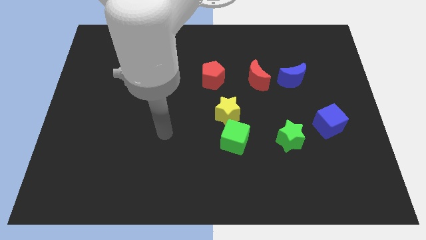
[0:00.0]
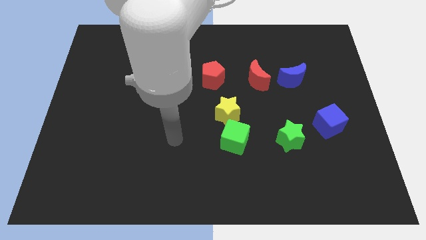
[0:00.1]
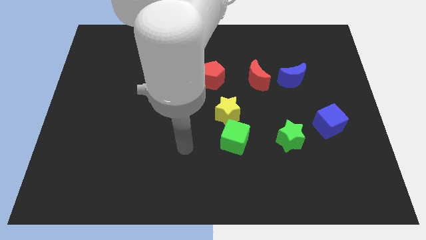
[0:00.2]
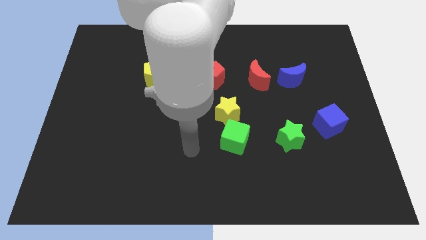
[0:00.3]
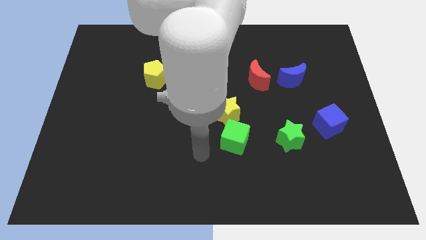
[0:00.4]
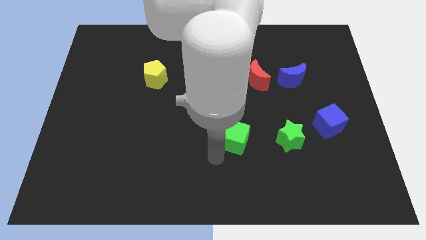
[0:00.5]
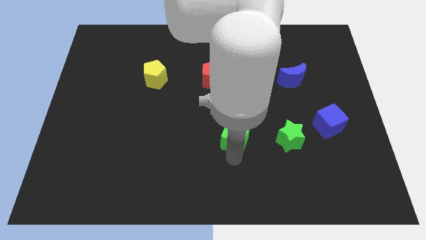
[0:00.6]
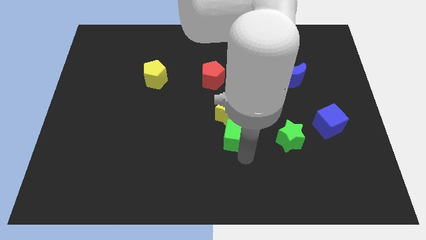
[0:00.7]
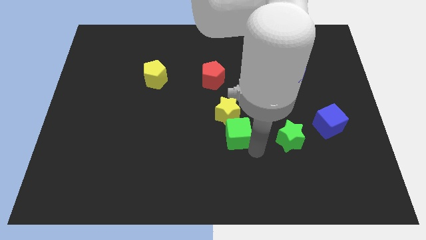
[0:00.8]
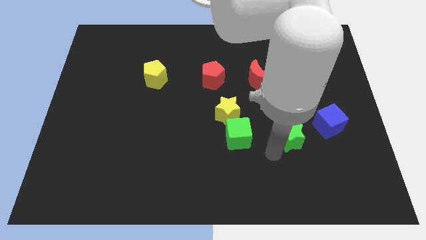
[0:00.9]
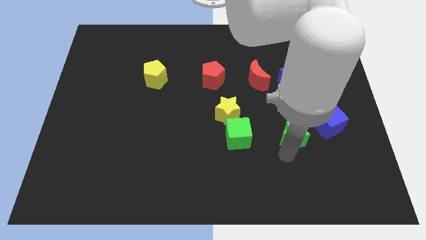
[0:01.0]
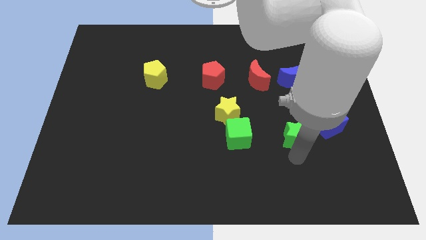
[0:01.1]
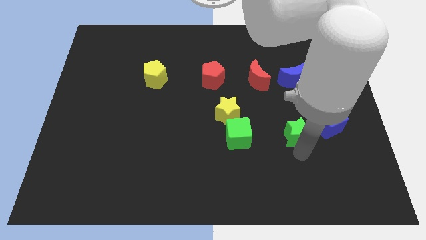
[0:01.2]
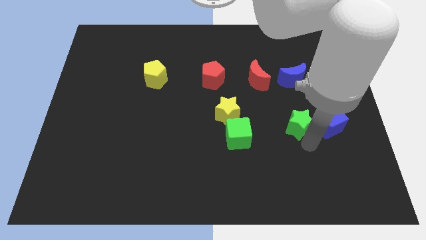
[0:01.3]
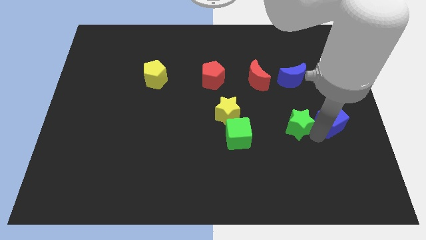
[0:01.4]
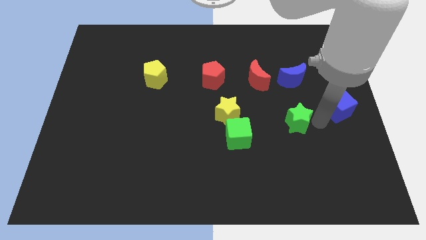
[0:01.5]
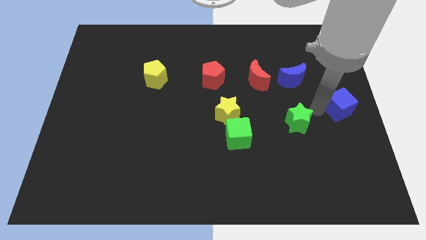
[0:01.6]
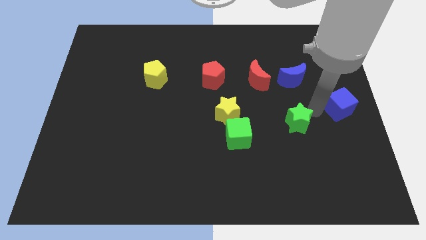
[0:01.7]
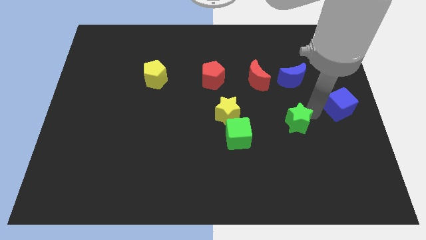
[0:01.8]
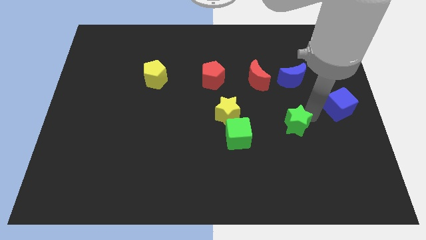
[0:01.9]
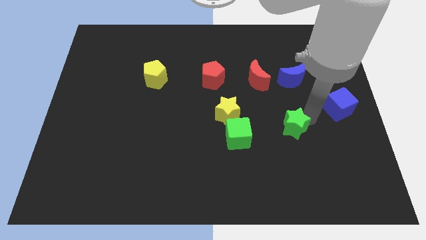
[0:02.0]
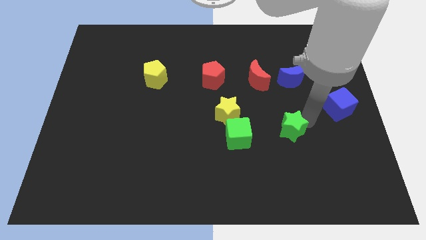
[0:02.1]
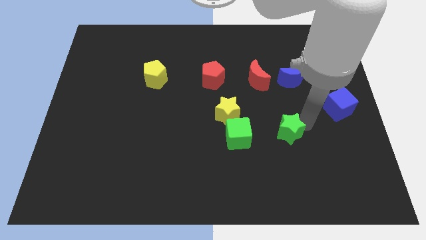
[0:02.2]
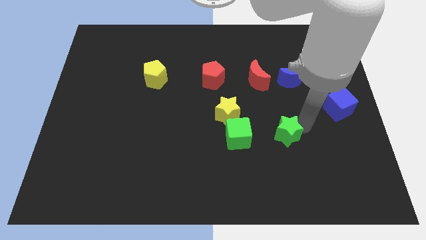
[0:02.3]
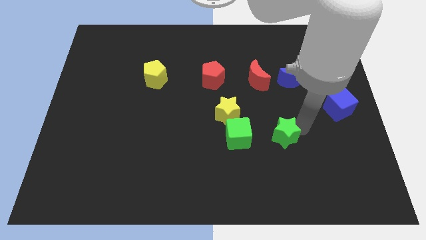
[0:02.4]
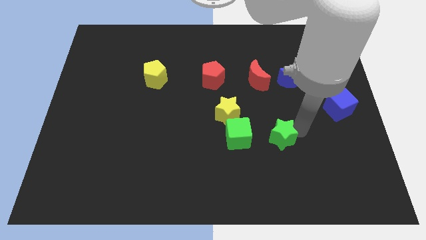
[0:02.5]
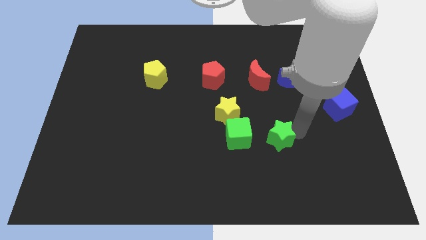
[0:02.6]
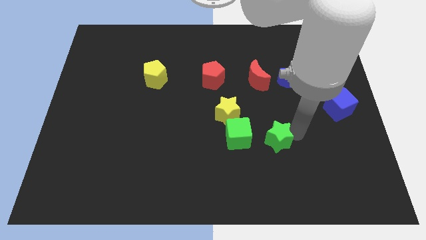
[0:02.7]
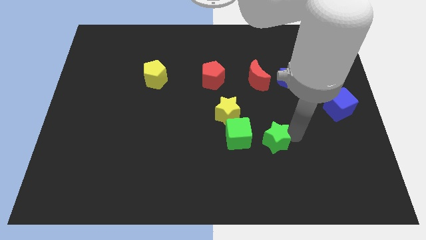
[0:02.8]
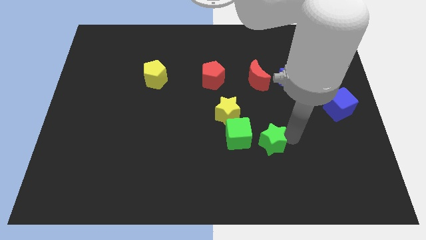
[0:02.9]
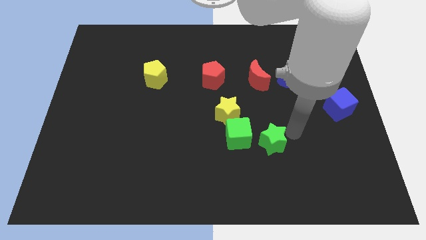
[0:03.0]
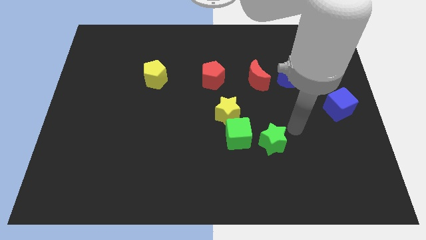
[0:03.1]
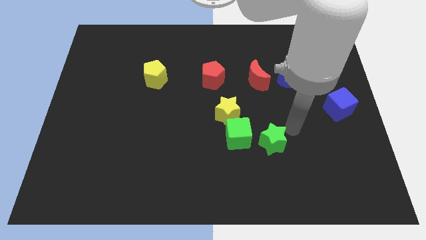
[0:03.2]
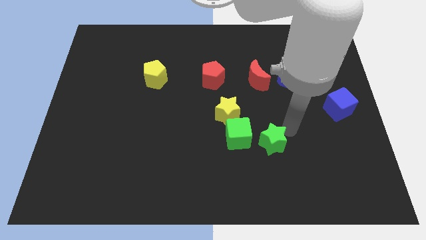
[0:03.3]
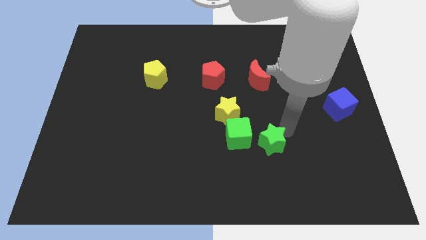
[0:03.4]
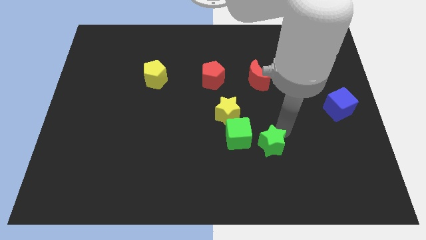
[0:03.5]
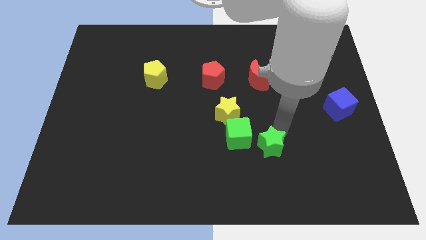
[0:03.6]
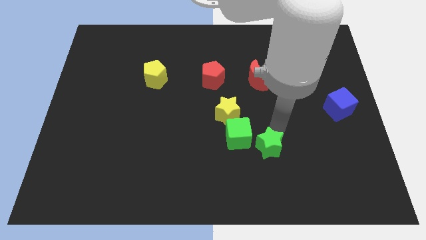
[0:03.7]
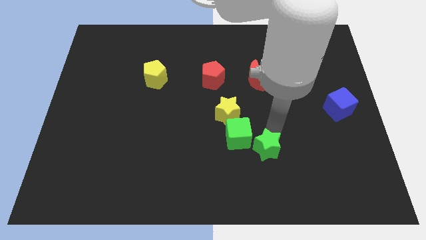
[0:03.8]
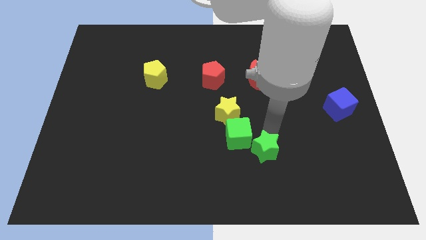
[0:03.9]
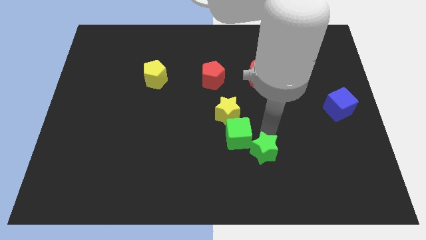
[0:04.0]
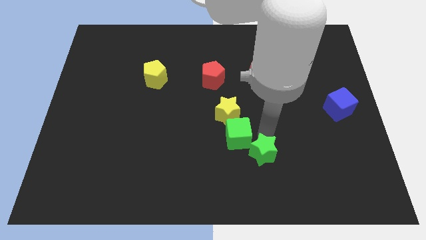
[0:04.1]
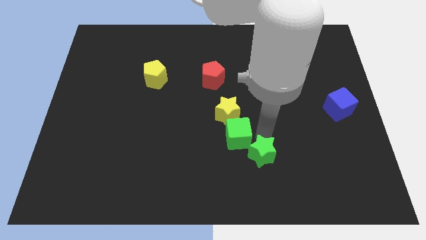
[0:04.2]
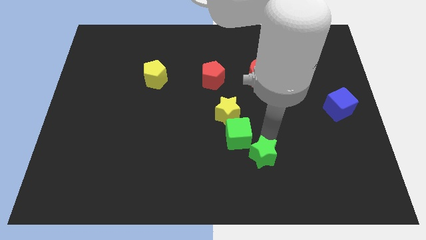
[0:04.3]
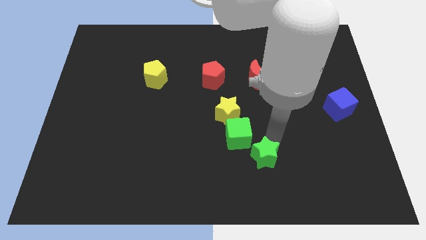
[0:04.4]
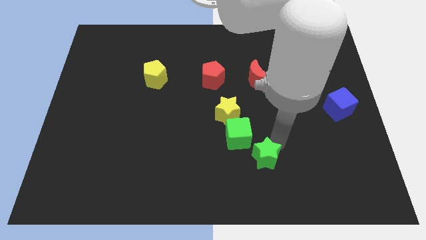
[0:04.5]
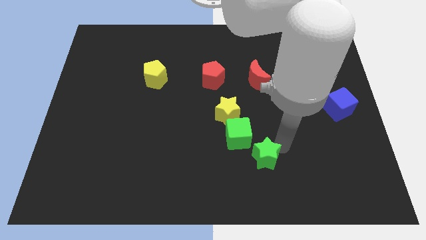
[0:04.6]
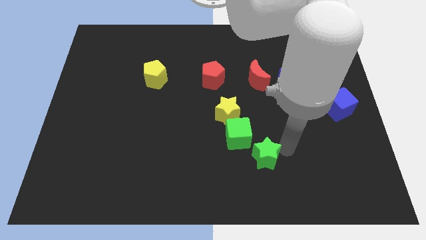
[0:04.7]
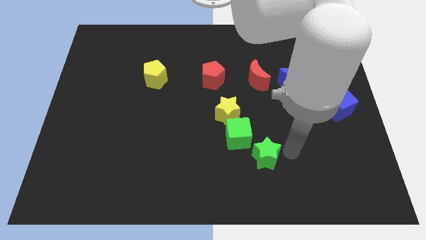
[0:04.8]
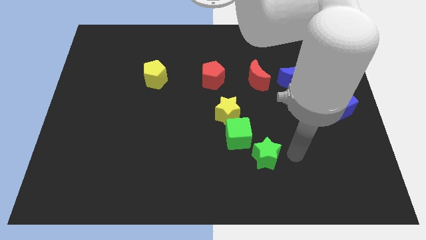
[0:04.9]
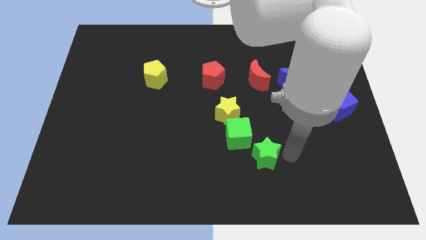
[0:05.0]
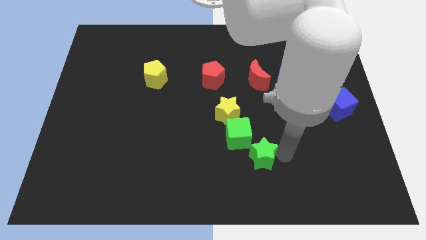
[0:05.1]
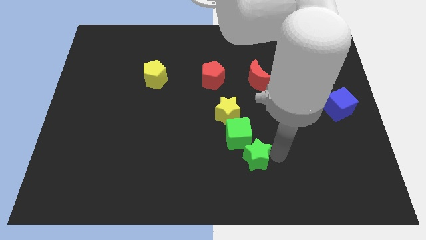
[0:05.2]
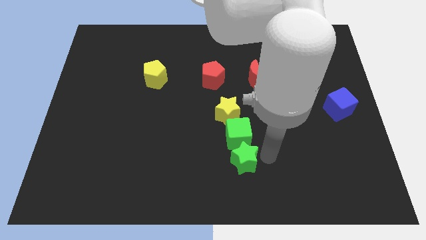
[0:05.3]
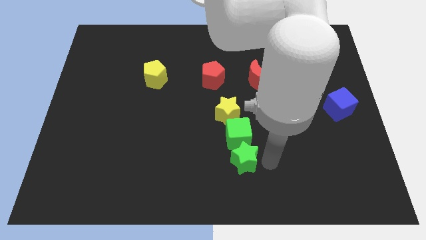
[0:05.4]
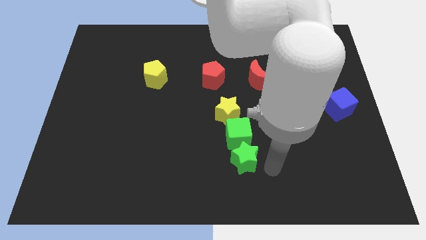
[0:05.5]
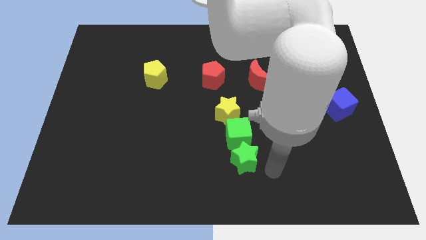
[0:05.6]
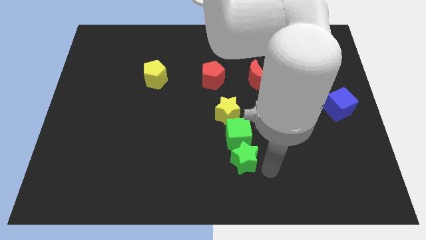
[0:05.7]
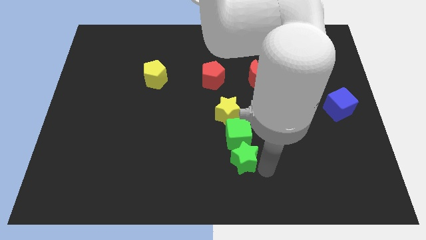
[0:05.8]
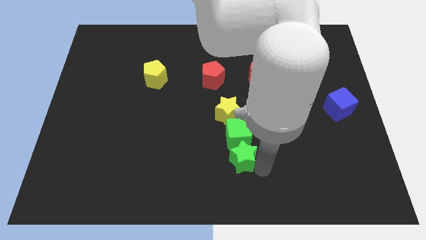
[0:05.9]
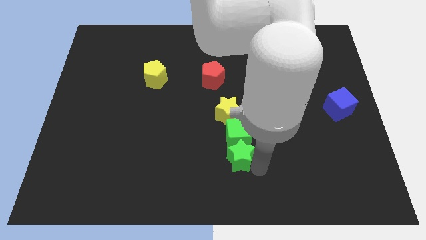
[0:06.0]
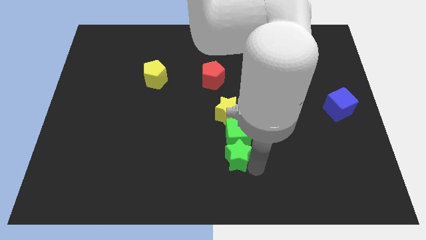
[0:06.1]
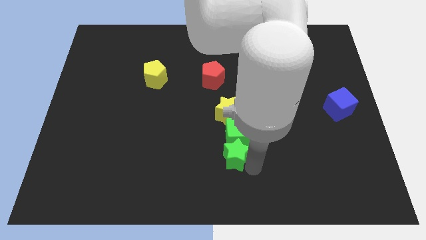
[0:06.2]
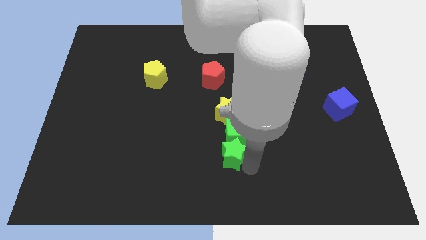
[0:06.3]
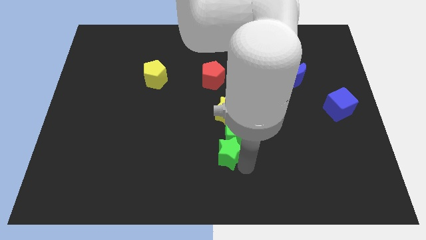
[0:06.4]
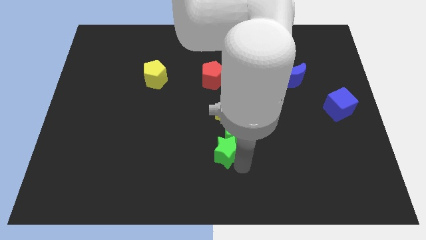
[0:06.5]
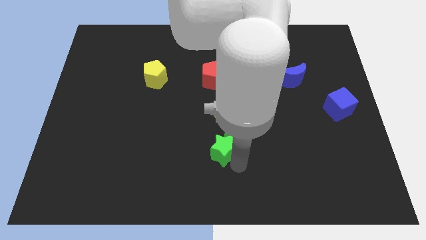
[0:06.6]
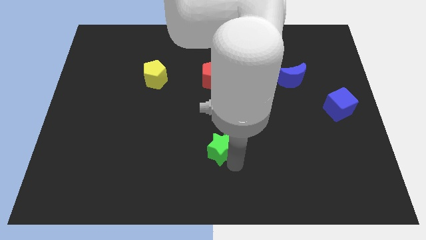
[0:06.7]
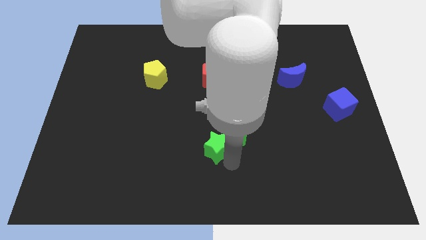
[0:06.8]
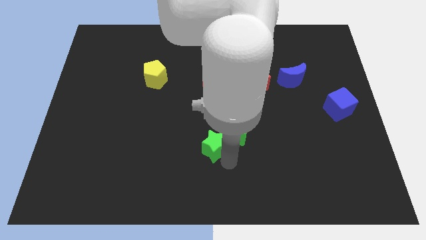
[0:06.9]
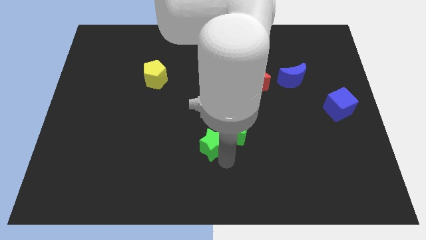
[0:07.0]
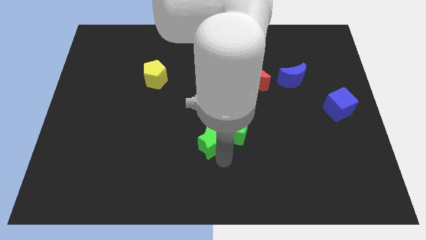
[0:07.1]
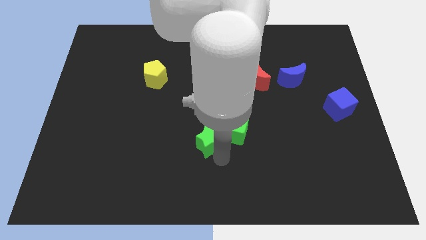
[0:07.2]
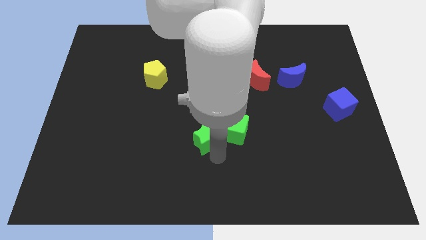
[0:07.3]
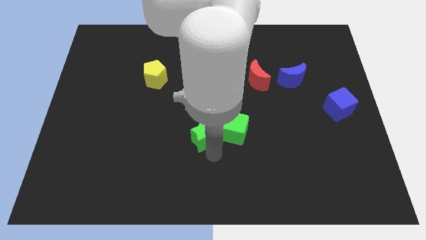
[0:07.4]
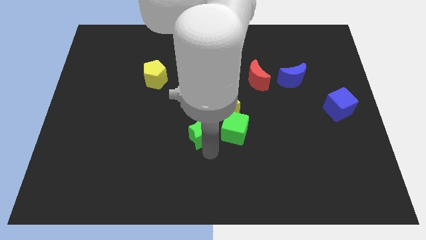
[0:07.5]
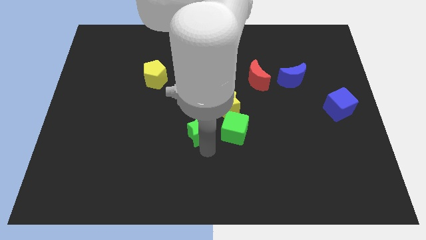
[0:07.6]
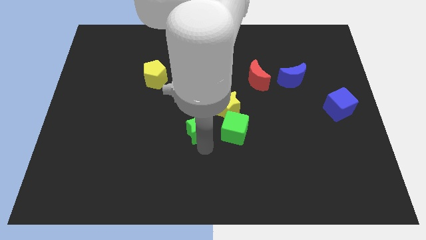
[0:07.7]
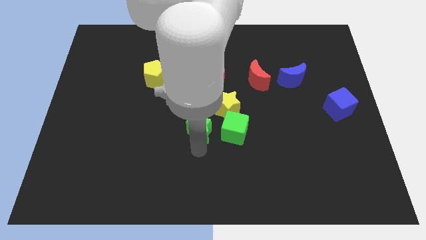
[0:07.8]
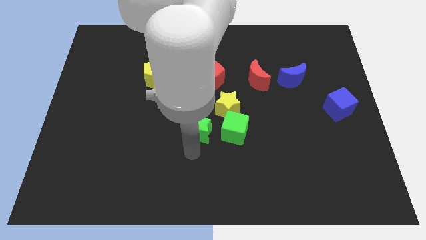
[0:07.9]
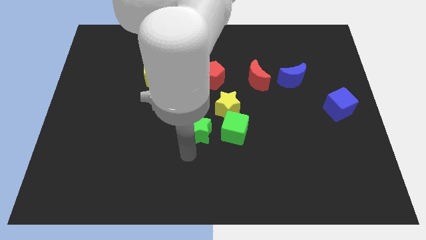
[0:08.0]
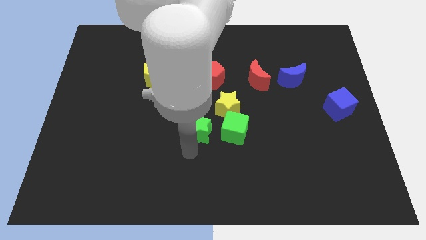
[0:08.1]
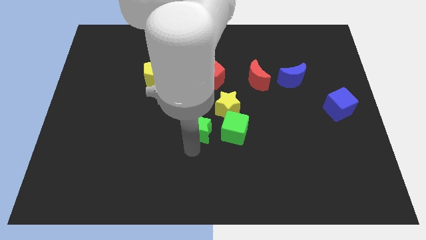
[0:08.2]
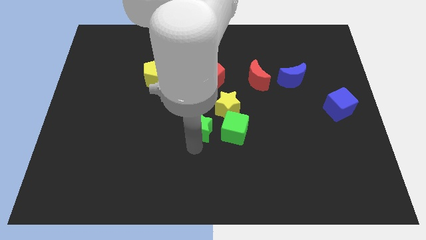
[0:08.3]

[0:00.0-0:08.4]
slide the green star to the bottom of the red pentagon
